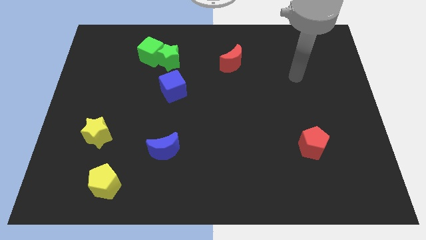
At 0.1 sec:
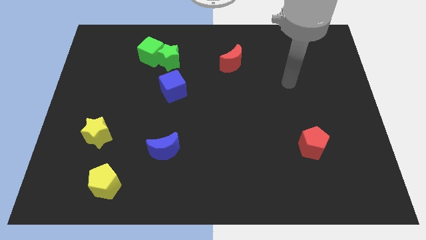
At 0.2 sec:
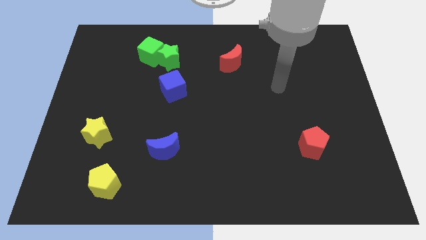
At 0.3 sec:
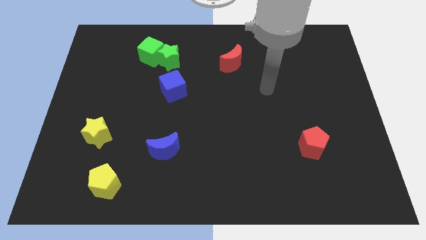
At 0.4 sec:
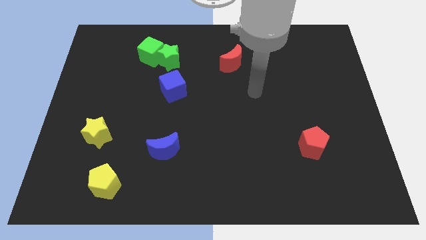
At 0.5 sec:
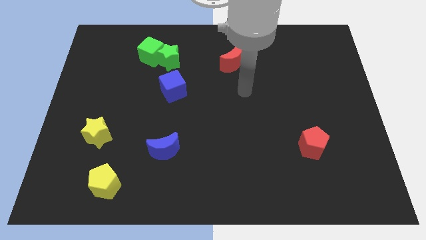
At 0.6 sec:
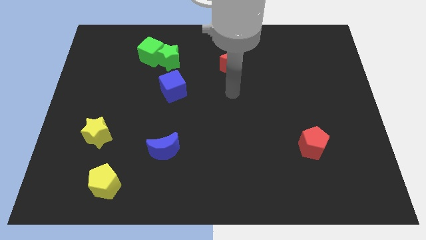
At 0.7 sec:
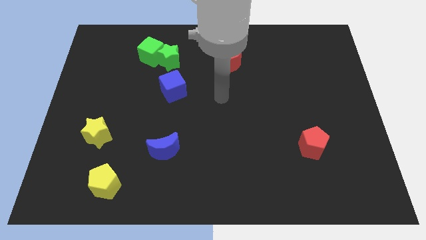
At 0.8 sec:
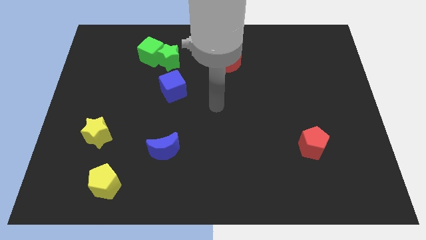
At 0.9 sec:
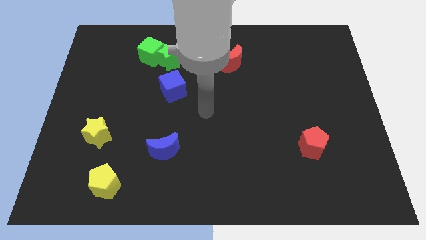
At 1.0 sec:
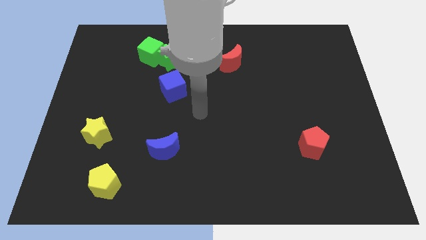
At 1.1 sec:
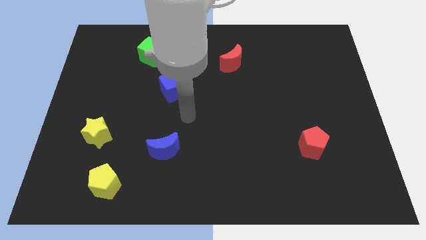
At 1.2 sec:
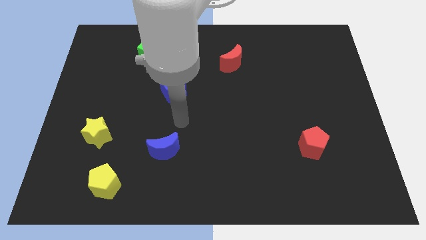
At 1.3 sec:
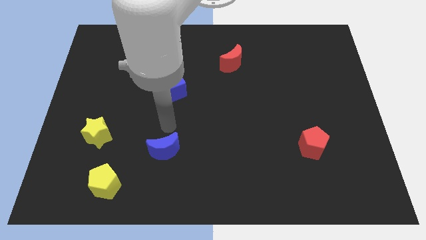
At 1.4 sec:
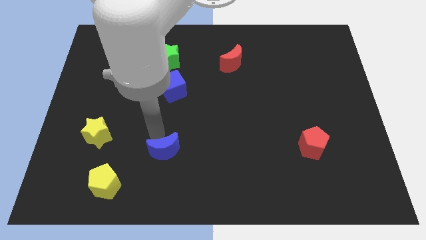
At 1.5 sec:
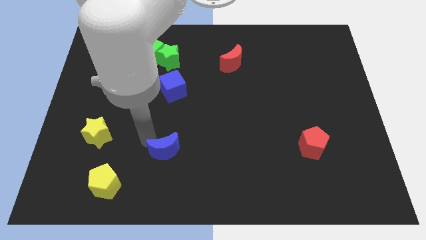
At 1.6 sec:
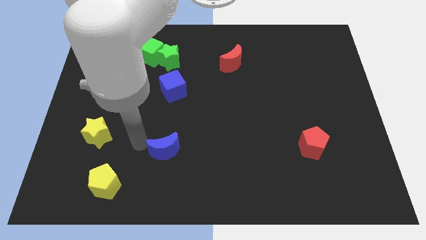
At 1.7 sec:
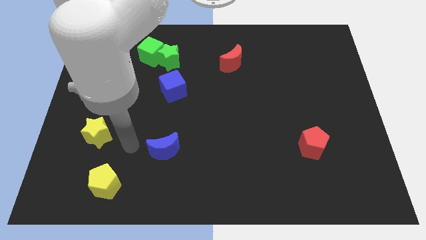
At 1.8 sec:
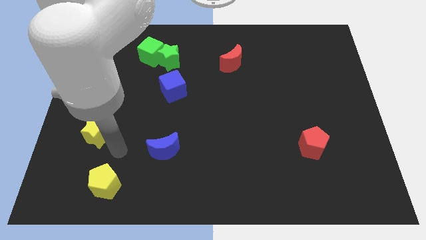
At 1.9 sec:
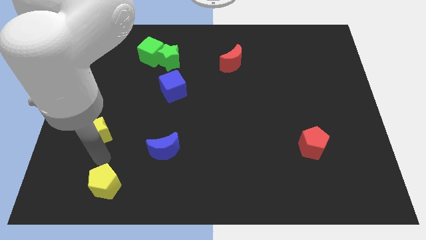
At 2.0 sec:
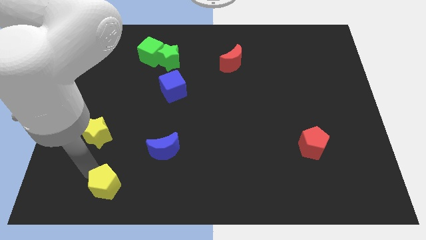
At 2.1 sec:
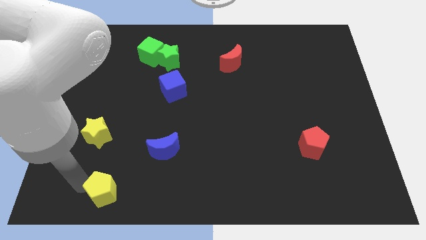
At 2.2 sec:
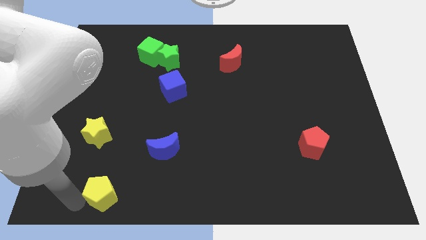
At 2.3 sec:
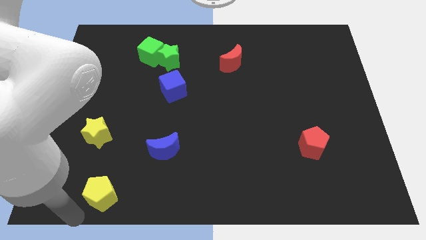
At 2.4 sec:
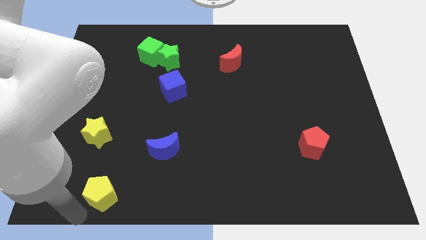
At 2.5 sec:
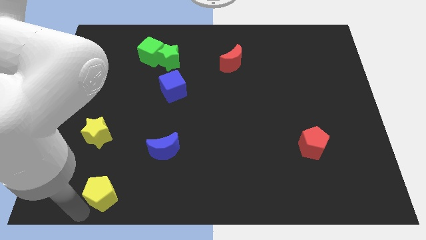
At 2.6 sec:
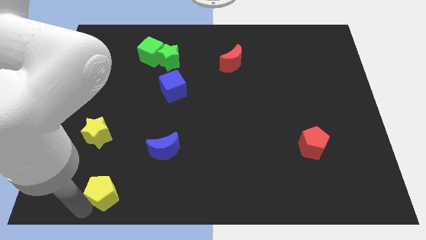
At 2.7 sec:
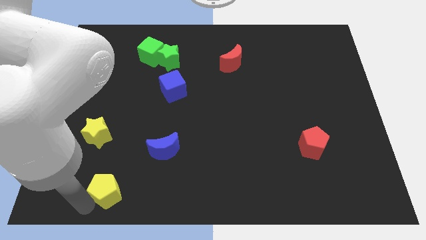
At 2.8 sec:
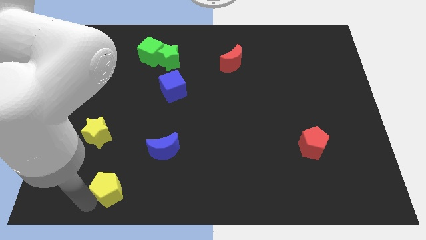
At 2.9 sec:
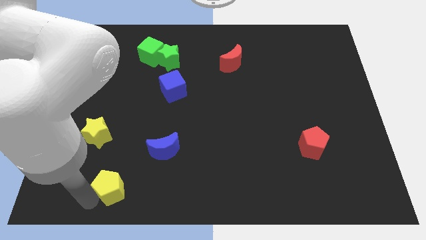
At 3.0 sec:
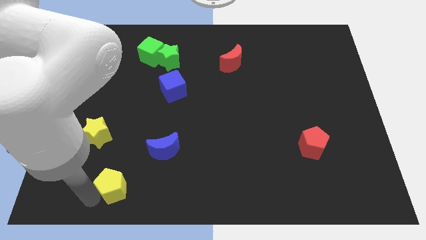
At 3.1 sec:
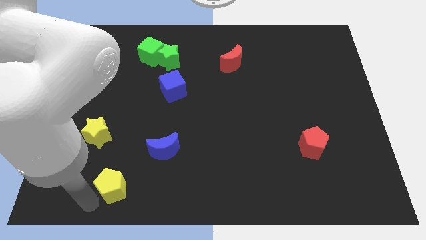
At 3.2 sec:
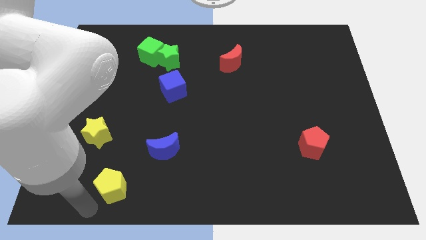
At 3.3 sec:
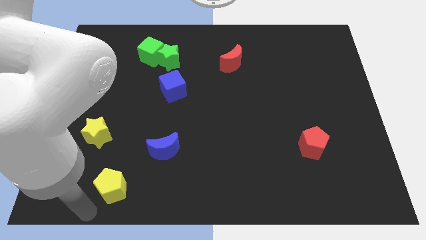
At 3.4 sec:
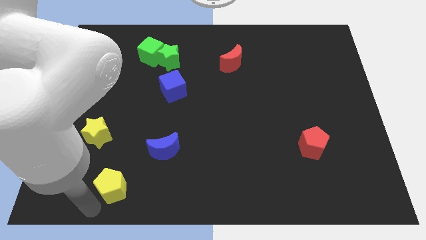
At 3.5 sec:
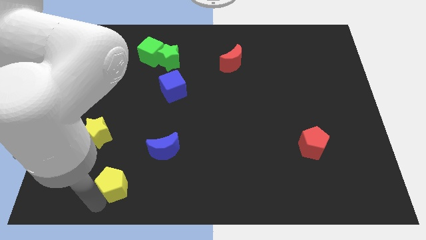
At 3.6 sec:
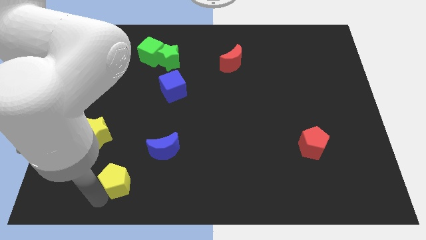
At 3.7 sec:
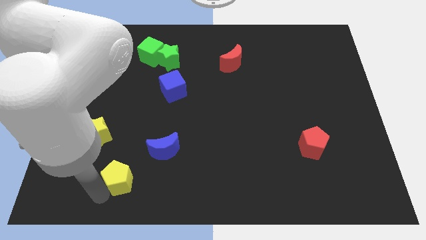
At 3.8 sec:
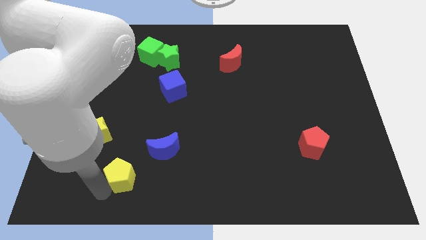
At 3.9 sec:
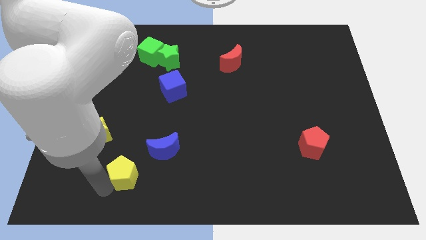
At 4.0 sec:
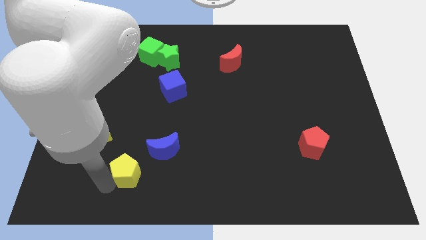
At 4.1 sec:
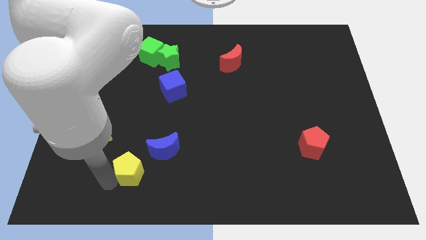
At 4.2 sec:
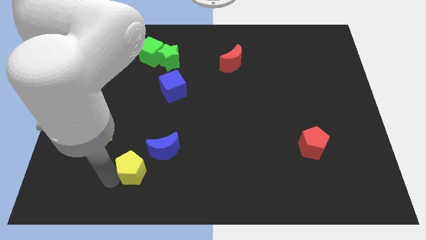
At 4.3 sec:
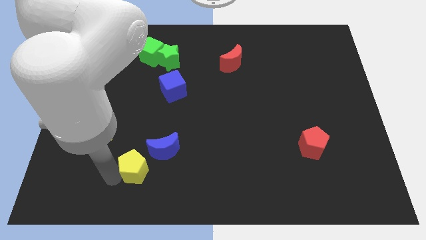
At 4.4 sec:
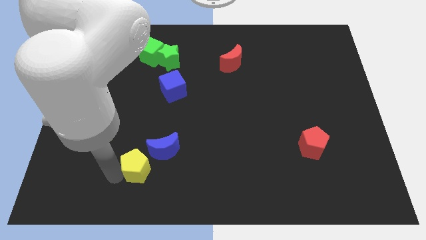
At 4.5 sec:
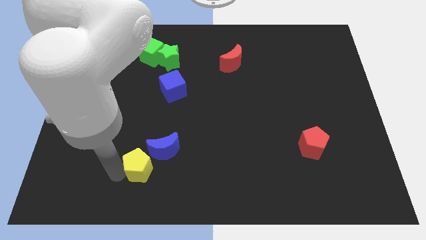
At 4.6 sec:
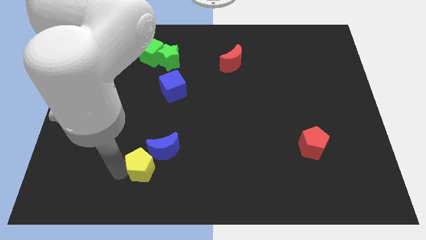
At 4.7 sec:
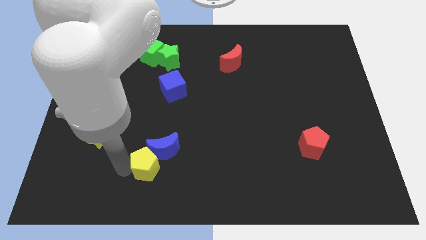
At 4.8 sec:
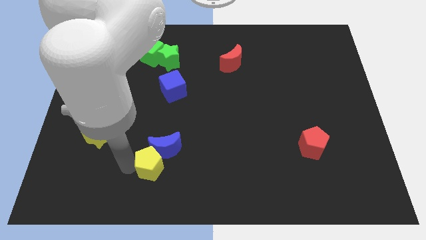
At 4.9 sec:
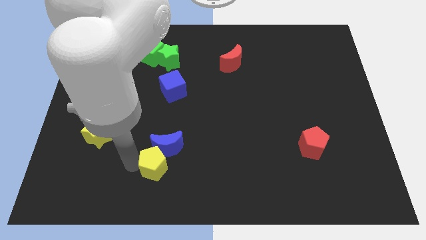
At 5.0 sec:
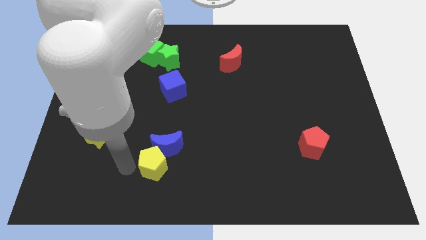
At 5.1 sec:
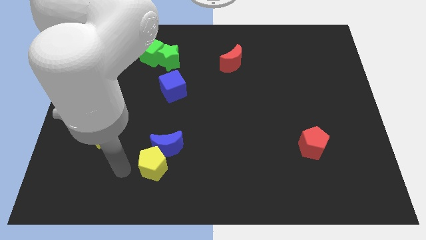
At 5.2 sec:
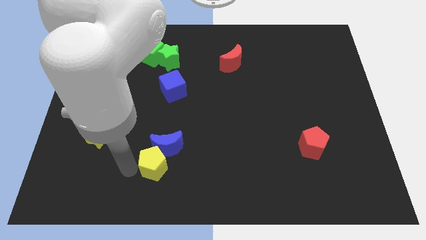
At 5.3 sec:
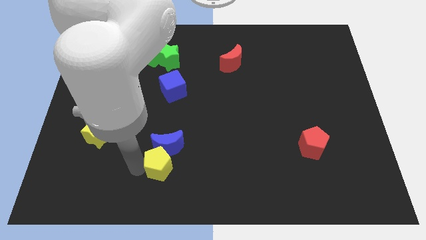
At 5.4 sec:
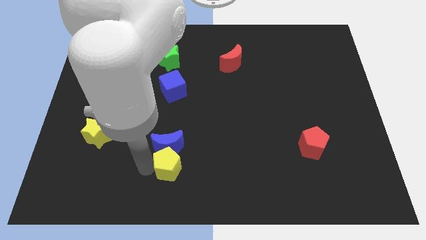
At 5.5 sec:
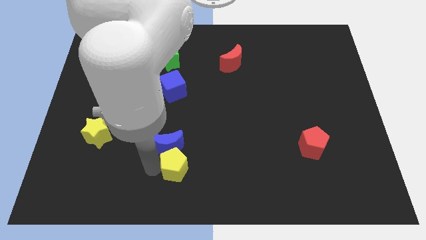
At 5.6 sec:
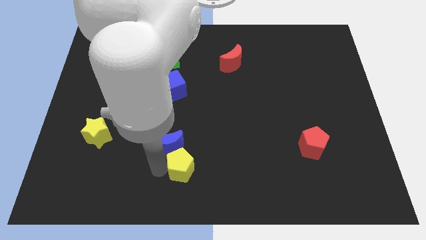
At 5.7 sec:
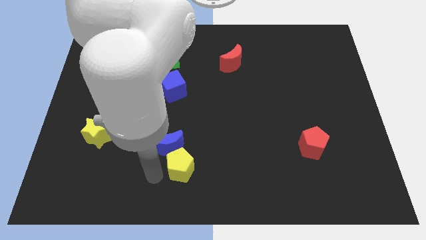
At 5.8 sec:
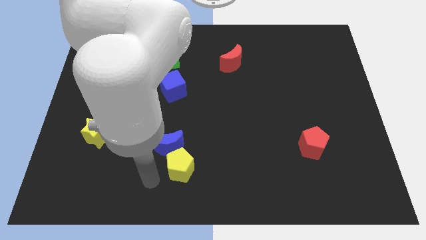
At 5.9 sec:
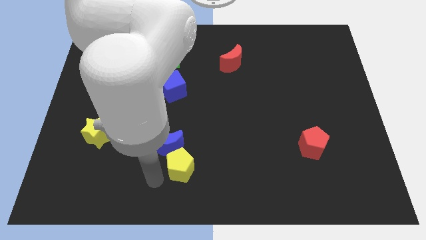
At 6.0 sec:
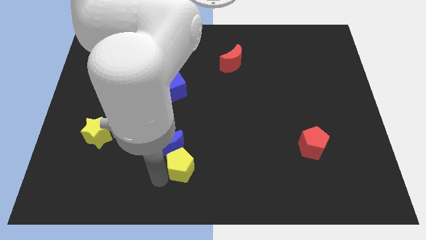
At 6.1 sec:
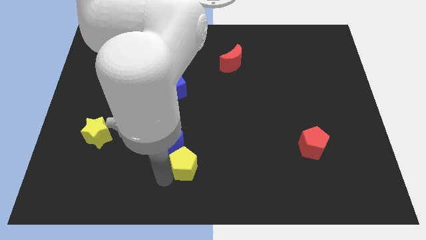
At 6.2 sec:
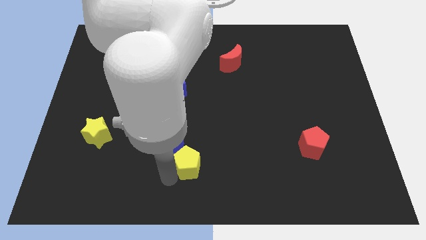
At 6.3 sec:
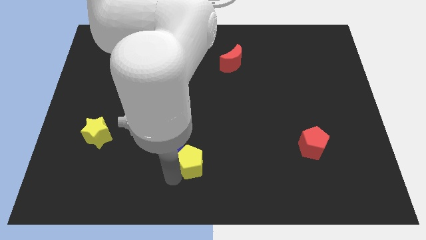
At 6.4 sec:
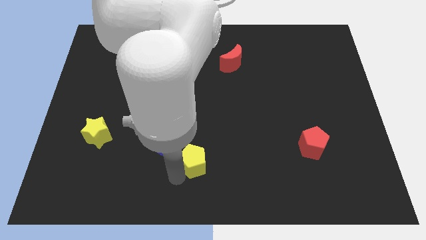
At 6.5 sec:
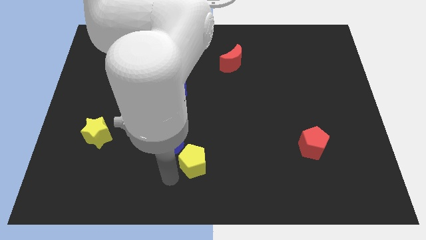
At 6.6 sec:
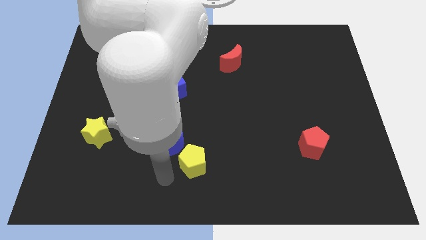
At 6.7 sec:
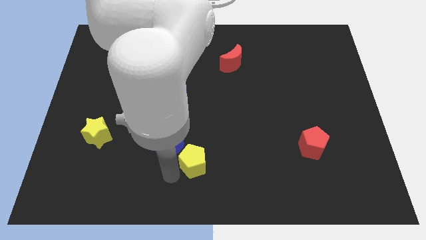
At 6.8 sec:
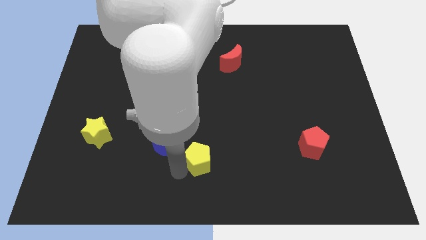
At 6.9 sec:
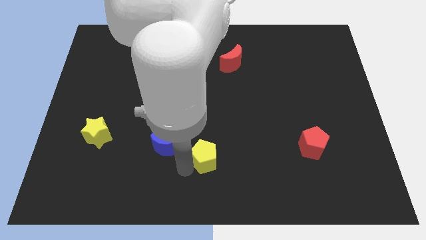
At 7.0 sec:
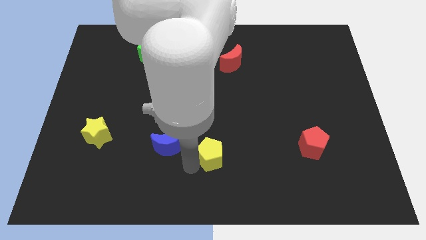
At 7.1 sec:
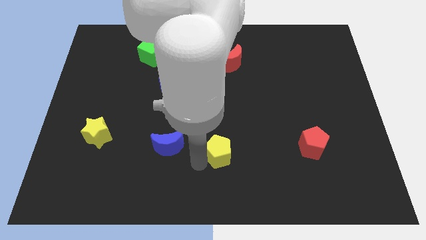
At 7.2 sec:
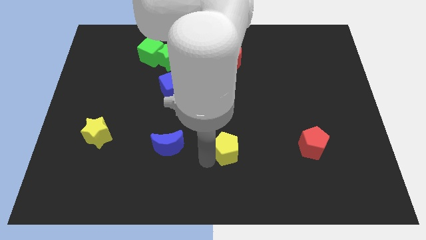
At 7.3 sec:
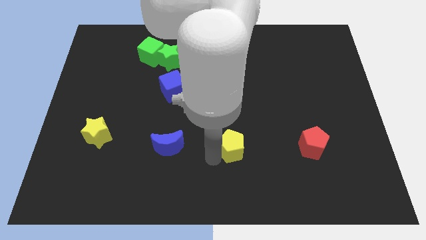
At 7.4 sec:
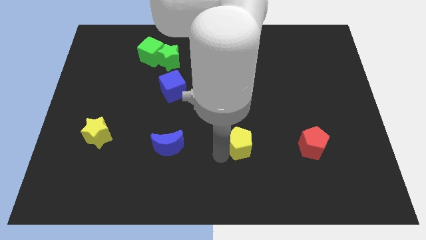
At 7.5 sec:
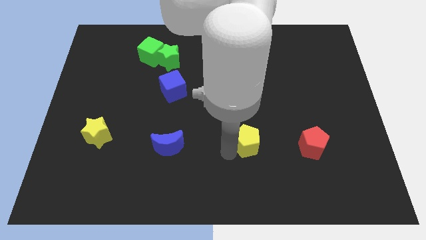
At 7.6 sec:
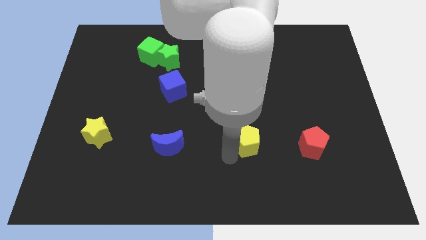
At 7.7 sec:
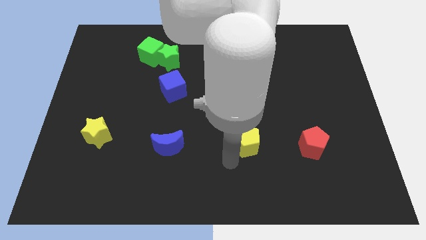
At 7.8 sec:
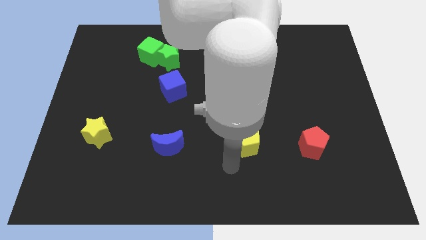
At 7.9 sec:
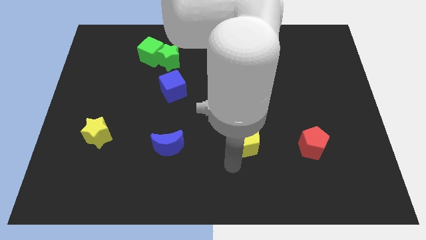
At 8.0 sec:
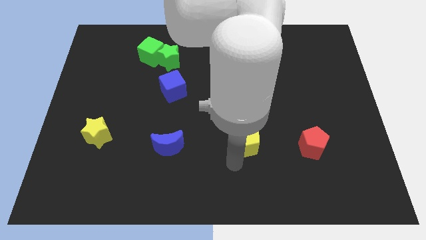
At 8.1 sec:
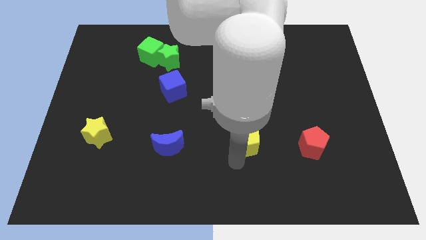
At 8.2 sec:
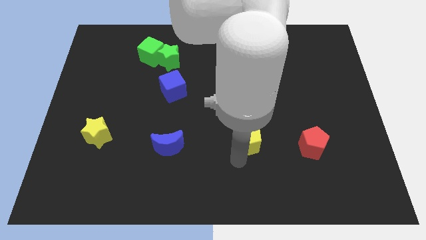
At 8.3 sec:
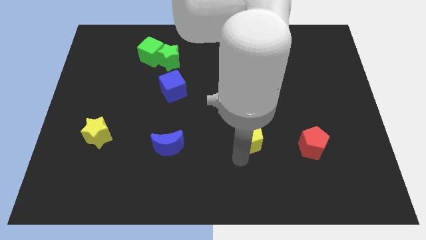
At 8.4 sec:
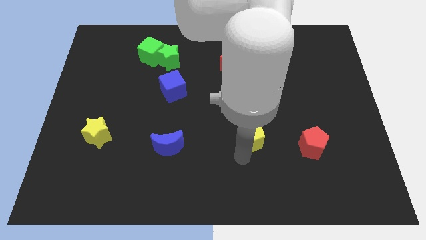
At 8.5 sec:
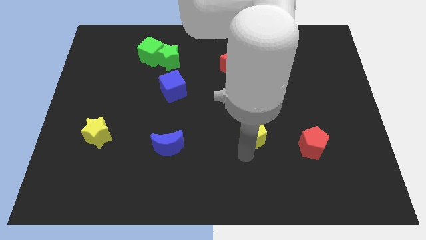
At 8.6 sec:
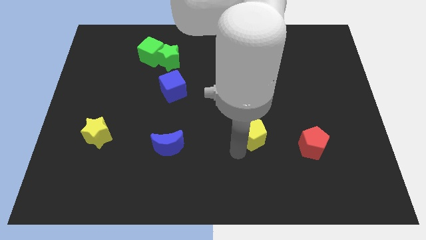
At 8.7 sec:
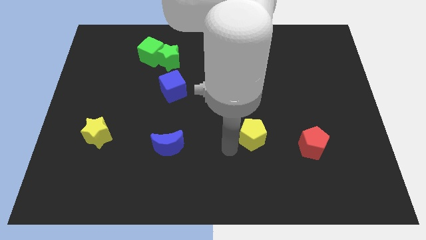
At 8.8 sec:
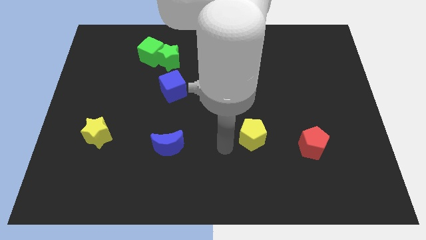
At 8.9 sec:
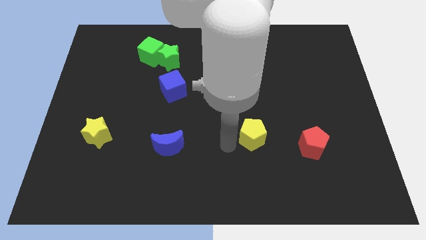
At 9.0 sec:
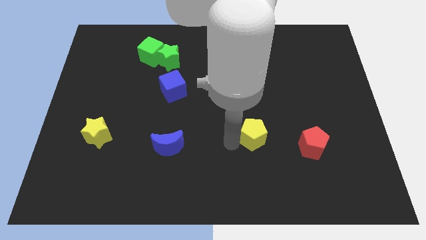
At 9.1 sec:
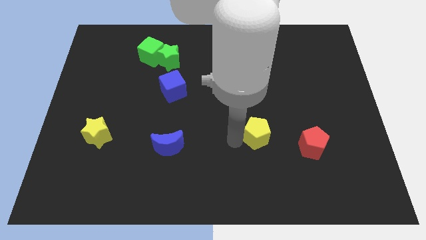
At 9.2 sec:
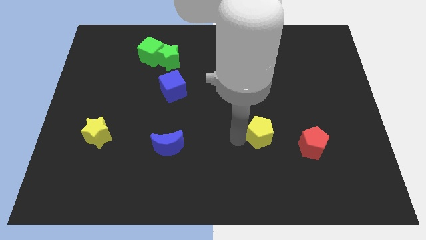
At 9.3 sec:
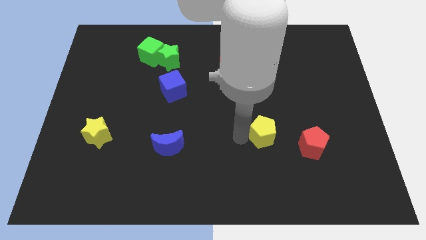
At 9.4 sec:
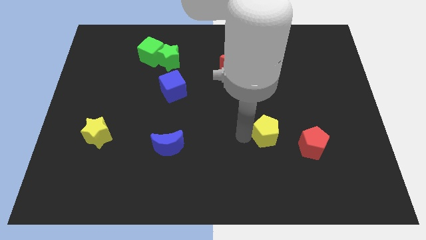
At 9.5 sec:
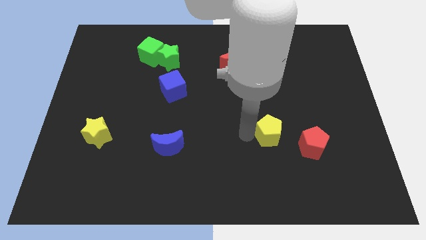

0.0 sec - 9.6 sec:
push the yellow pentagon to the top left of the red pentagon
